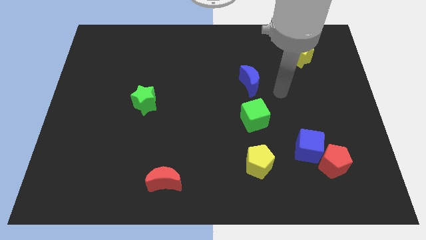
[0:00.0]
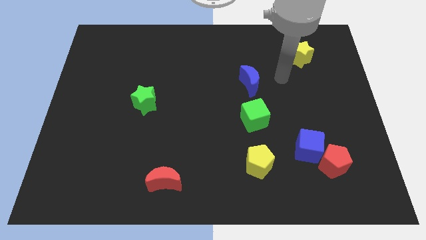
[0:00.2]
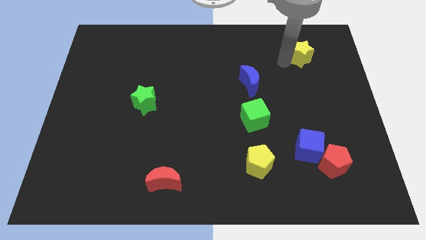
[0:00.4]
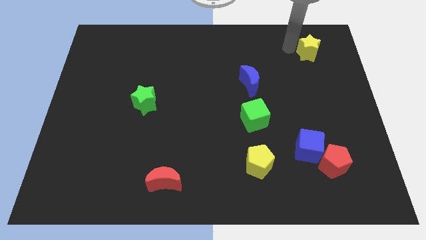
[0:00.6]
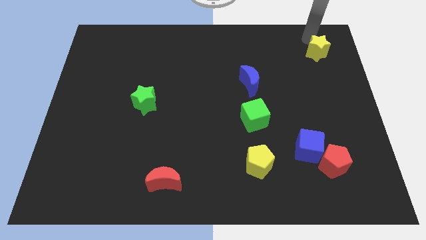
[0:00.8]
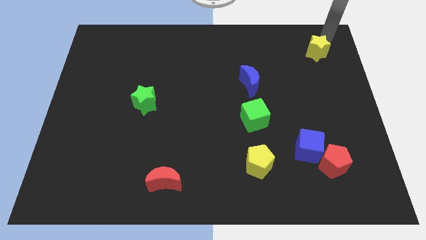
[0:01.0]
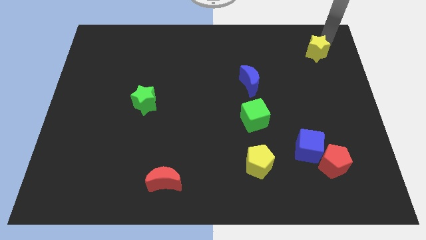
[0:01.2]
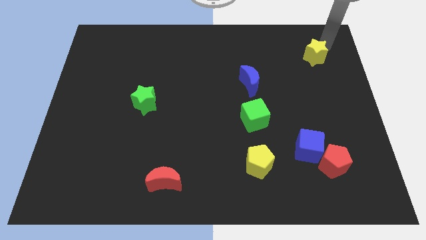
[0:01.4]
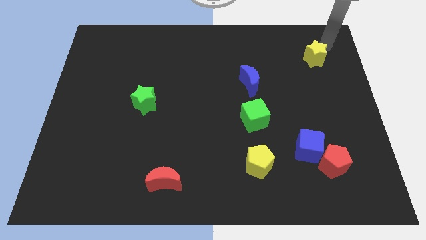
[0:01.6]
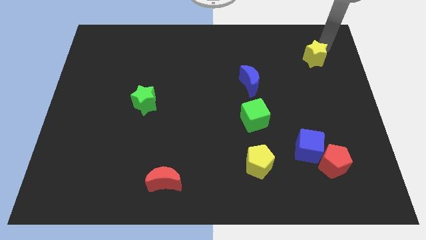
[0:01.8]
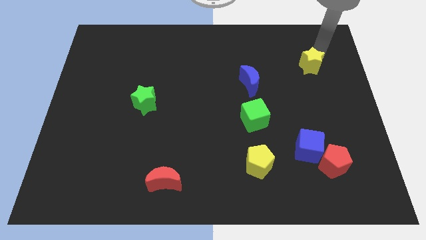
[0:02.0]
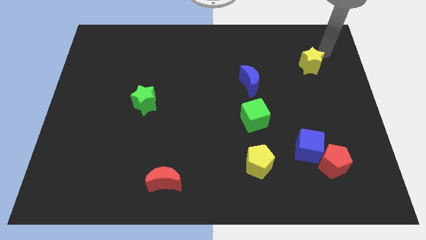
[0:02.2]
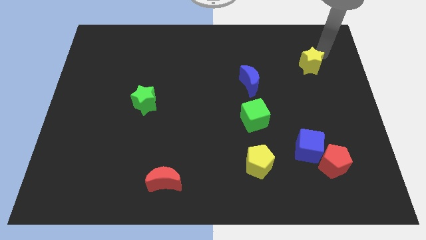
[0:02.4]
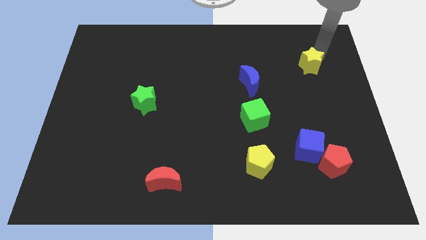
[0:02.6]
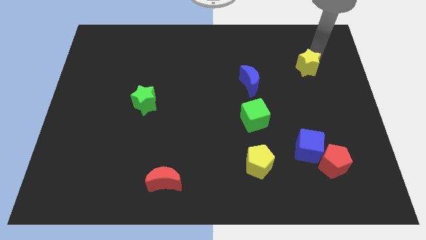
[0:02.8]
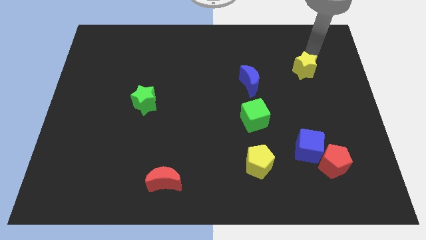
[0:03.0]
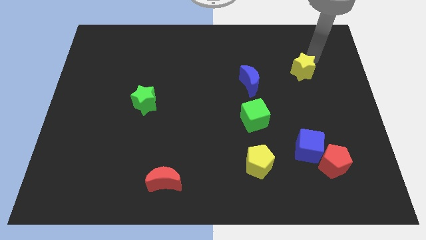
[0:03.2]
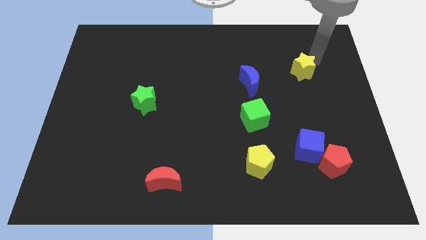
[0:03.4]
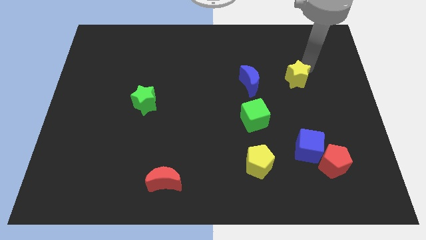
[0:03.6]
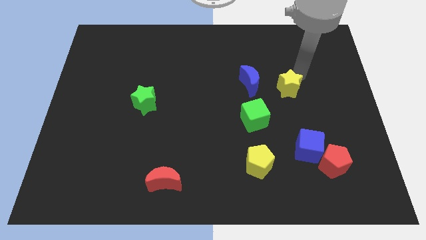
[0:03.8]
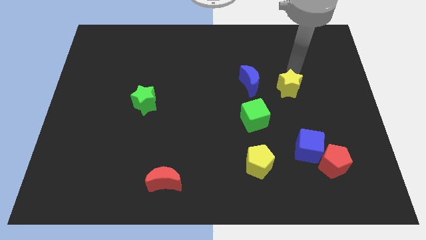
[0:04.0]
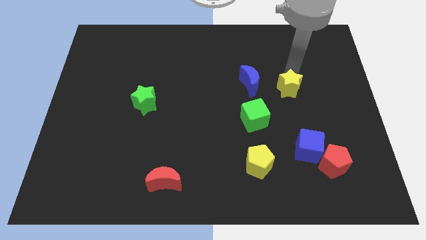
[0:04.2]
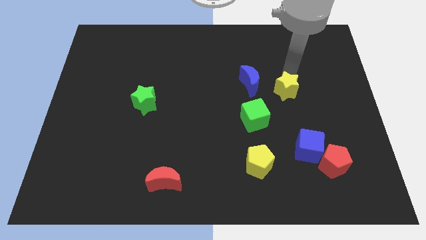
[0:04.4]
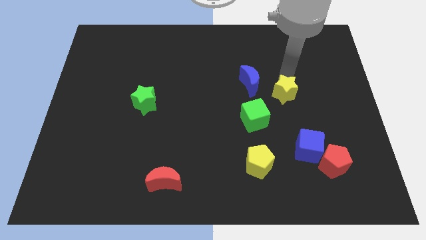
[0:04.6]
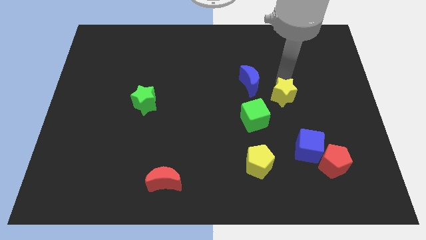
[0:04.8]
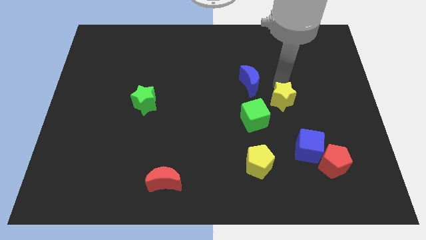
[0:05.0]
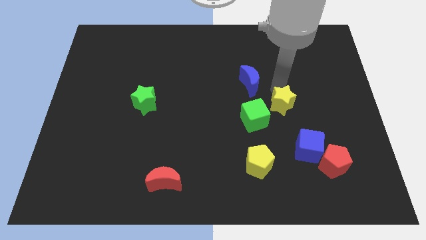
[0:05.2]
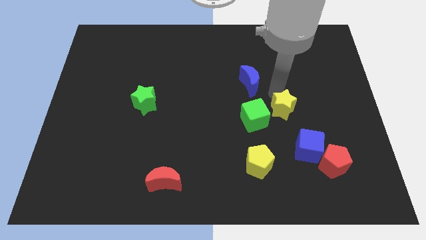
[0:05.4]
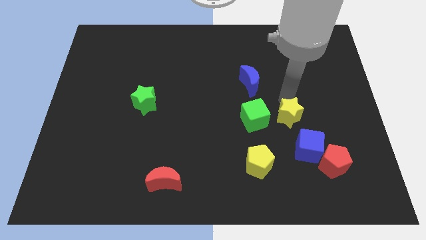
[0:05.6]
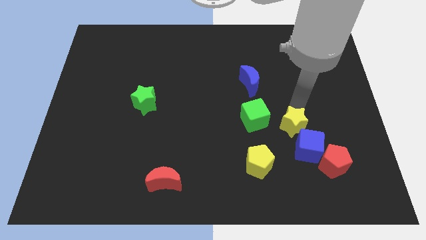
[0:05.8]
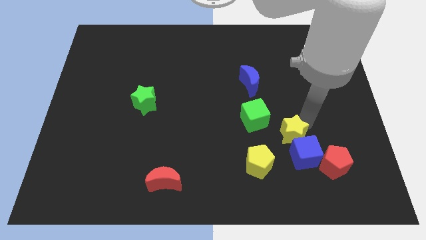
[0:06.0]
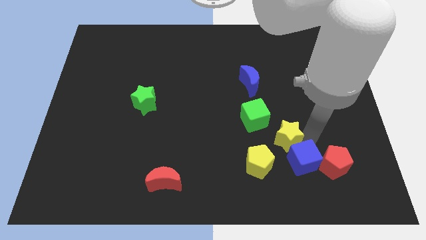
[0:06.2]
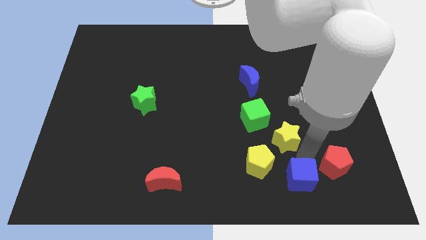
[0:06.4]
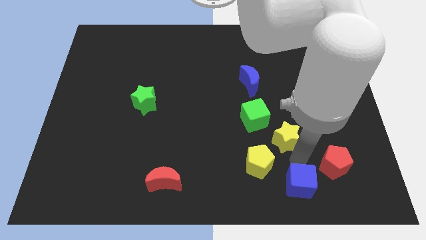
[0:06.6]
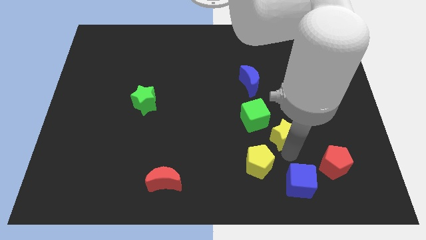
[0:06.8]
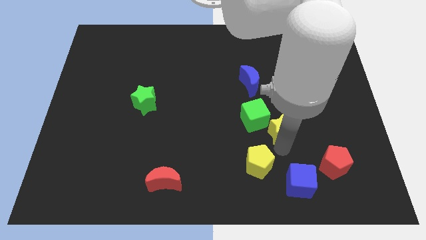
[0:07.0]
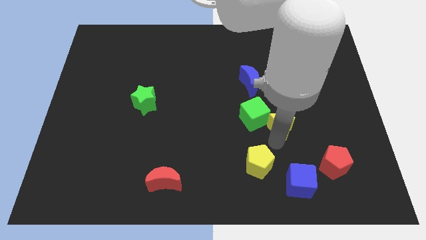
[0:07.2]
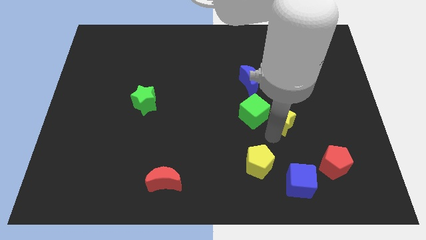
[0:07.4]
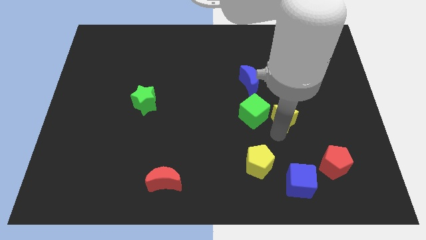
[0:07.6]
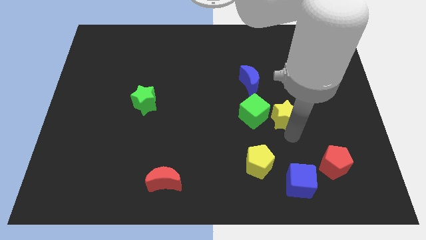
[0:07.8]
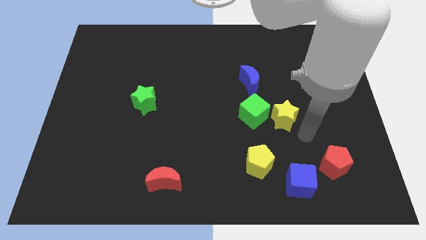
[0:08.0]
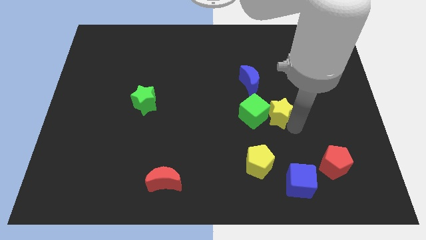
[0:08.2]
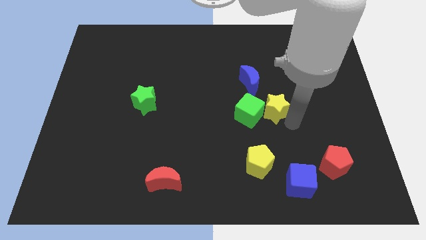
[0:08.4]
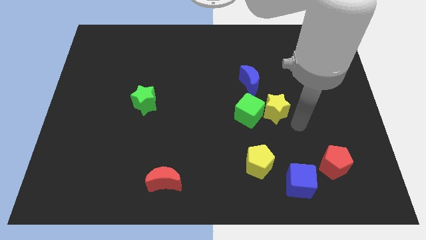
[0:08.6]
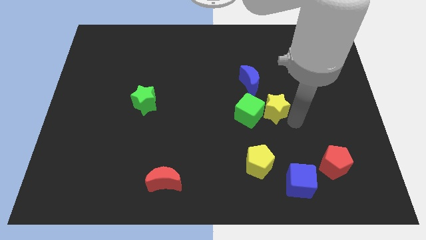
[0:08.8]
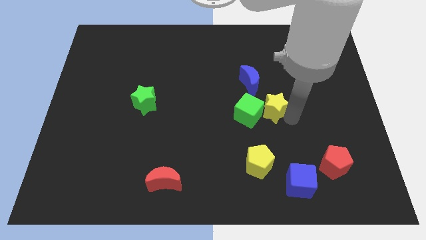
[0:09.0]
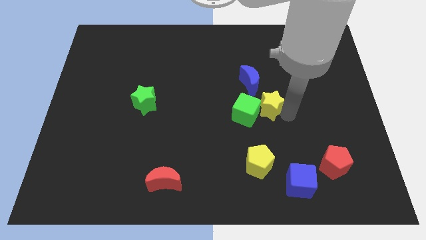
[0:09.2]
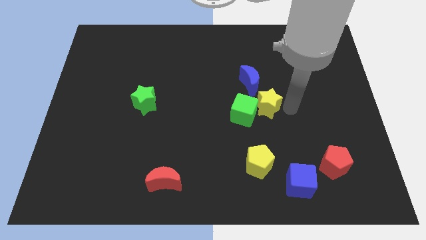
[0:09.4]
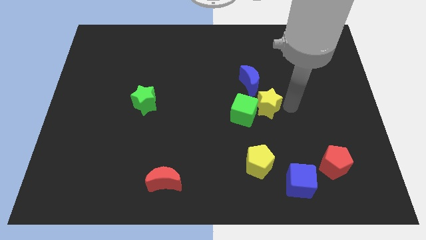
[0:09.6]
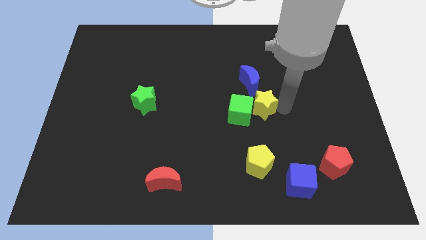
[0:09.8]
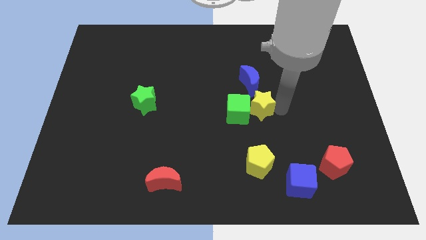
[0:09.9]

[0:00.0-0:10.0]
push the yellow star down and to the left

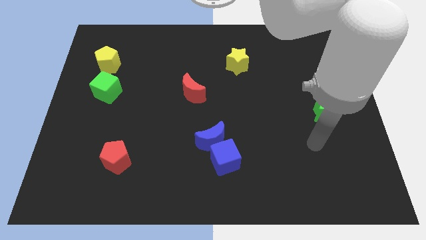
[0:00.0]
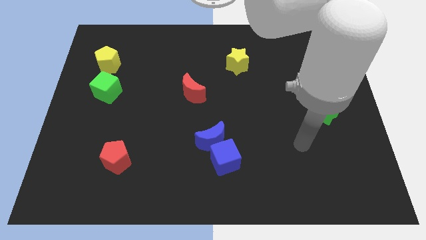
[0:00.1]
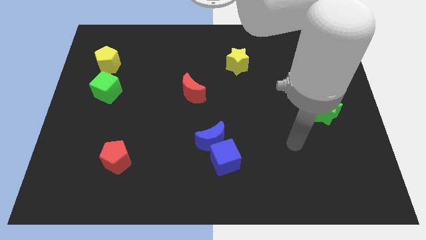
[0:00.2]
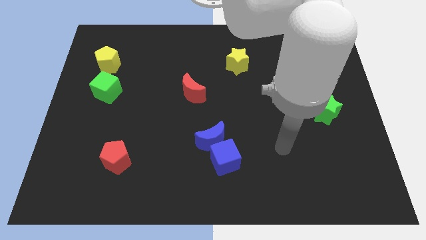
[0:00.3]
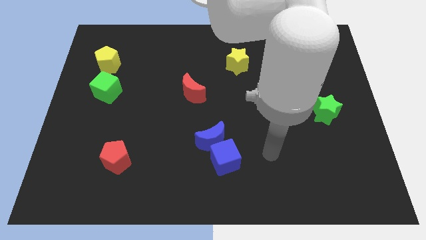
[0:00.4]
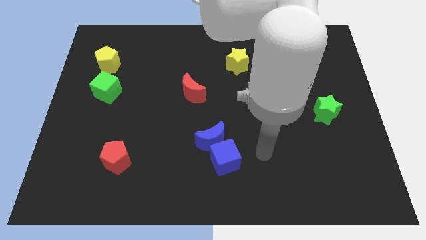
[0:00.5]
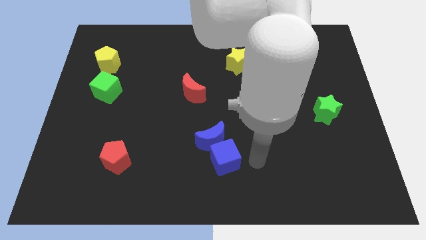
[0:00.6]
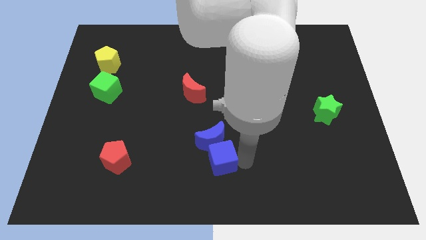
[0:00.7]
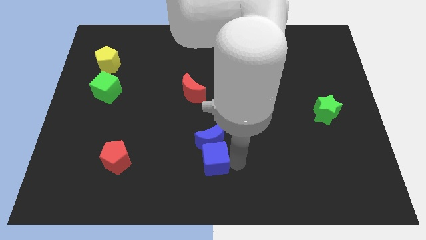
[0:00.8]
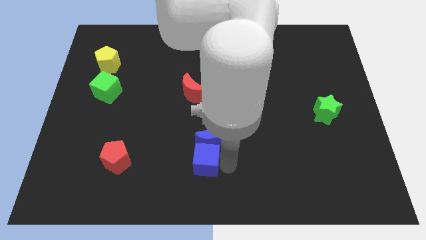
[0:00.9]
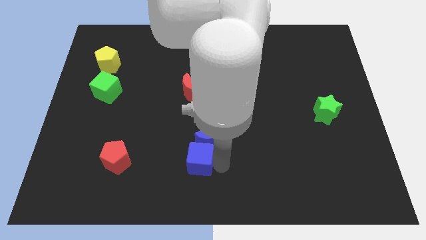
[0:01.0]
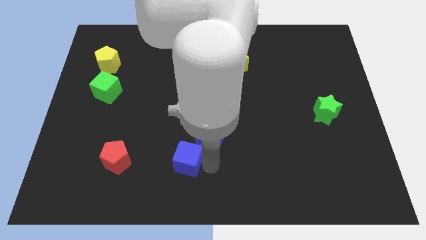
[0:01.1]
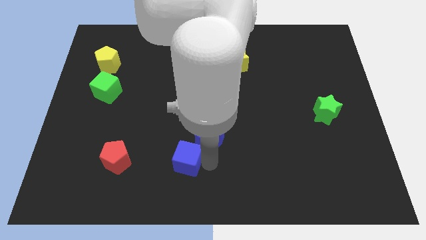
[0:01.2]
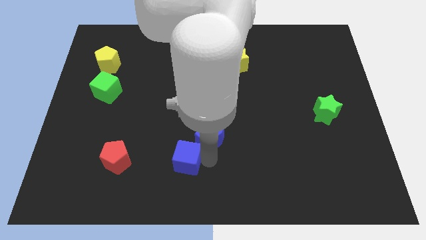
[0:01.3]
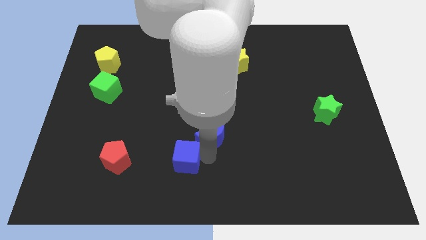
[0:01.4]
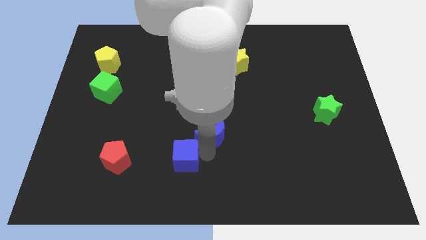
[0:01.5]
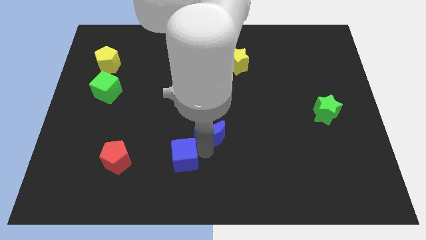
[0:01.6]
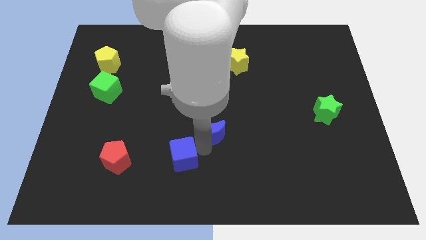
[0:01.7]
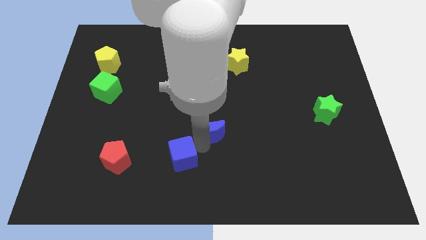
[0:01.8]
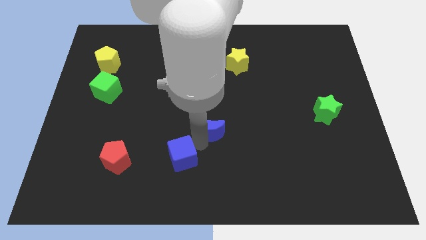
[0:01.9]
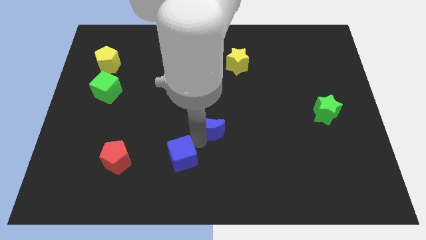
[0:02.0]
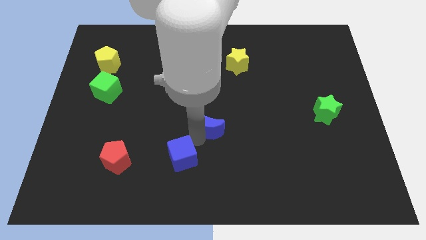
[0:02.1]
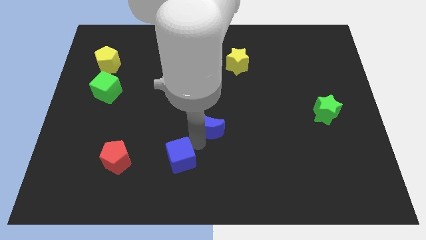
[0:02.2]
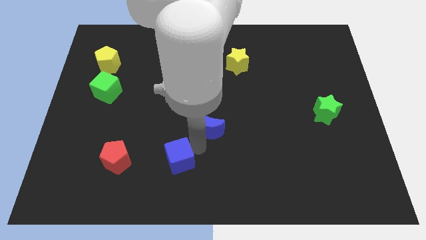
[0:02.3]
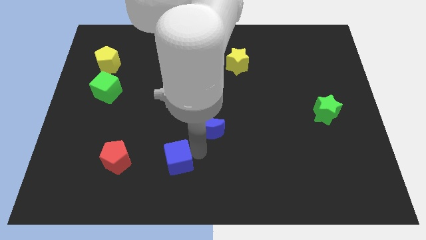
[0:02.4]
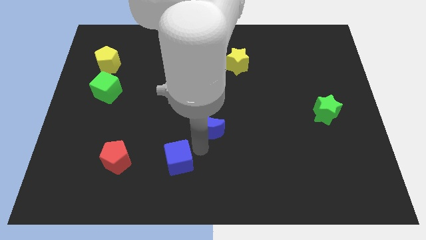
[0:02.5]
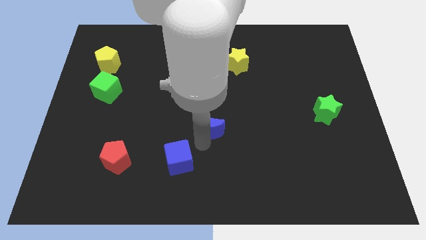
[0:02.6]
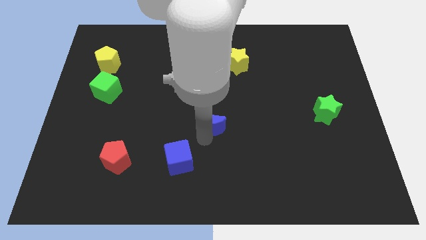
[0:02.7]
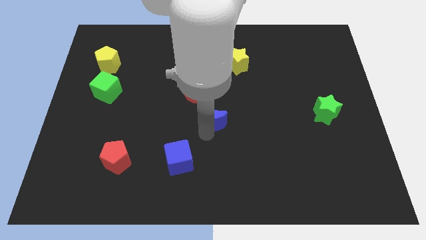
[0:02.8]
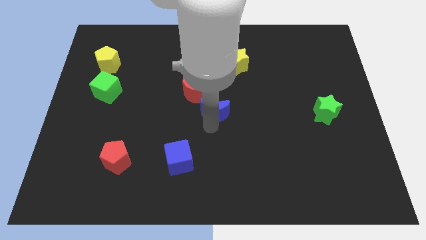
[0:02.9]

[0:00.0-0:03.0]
push the blue moon a little up
